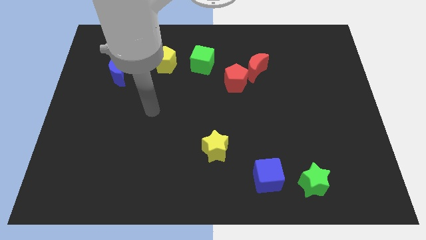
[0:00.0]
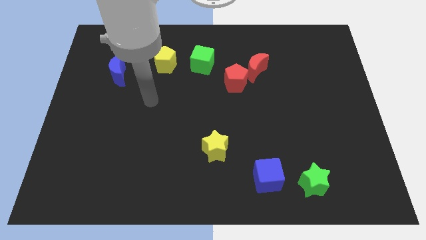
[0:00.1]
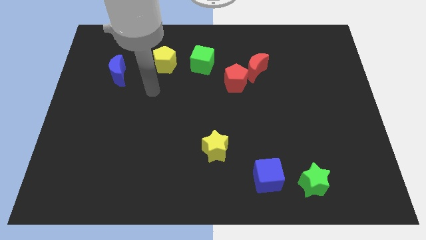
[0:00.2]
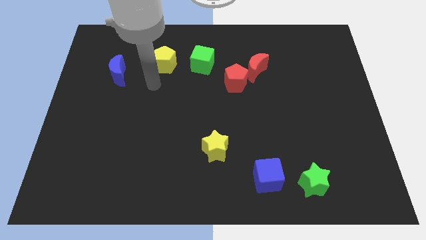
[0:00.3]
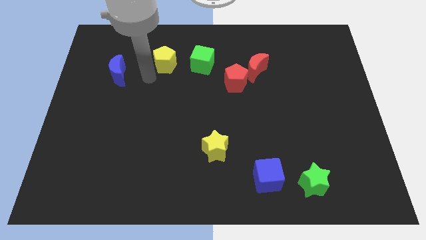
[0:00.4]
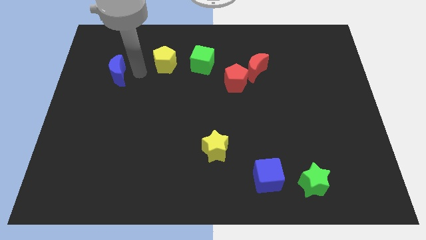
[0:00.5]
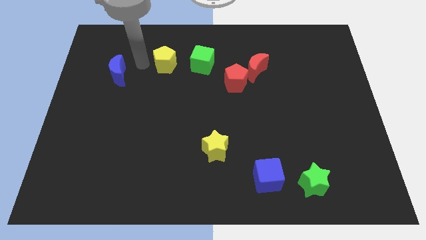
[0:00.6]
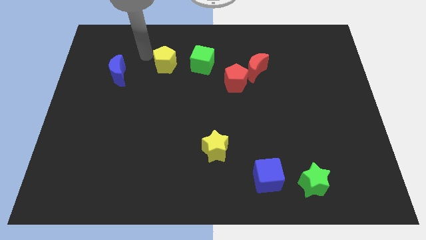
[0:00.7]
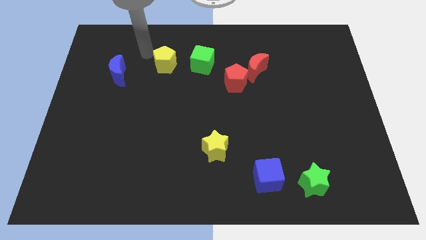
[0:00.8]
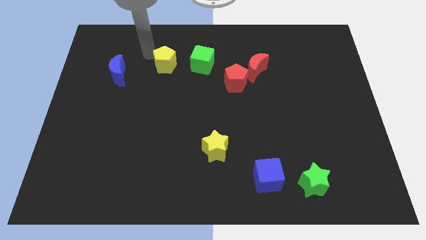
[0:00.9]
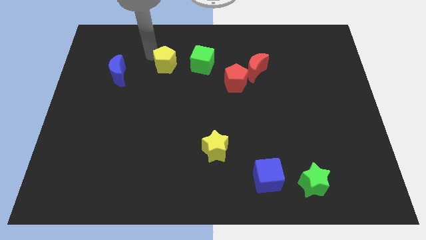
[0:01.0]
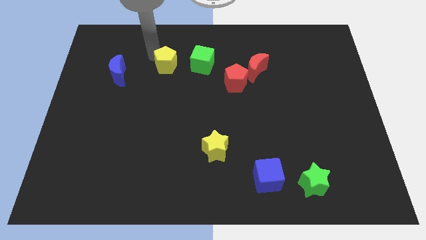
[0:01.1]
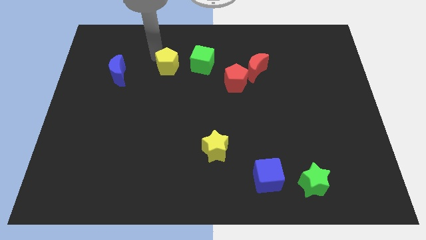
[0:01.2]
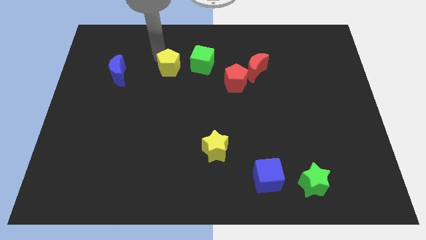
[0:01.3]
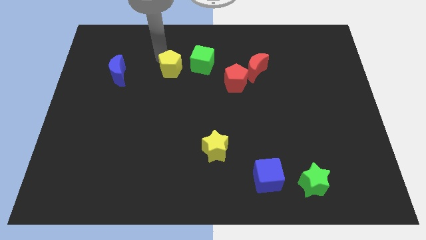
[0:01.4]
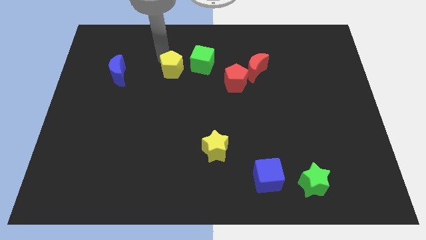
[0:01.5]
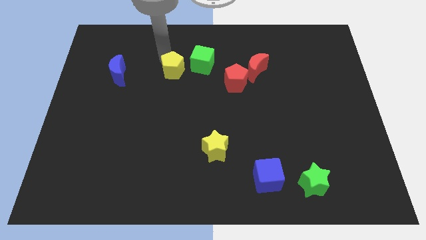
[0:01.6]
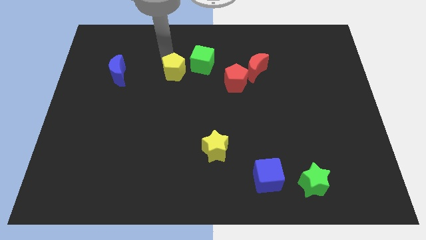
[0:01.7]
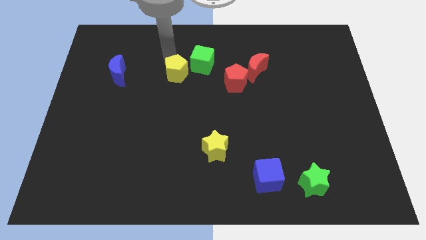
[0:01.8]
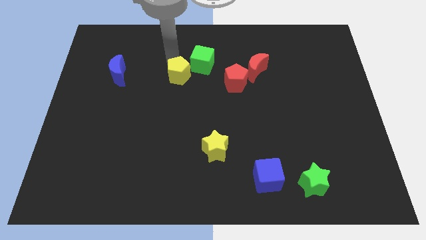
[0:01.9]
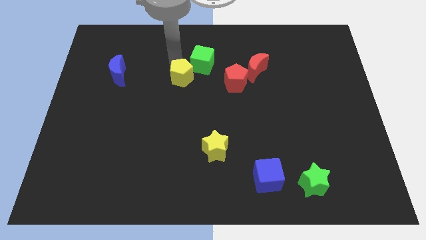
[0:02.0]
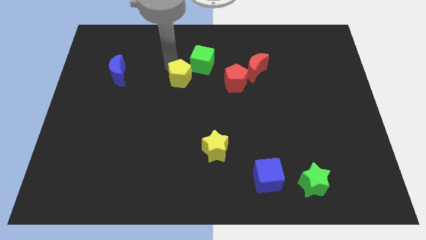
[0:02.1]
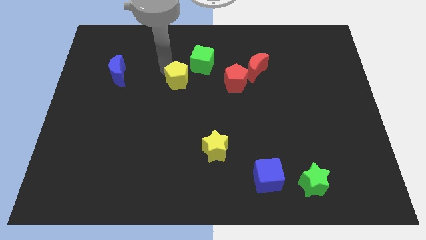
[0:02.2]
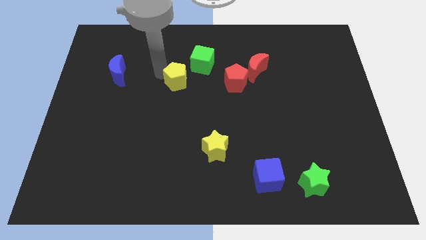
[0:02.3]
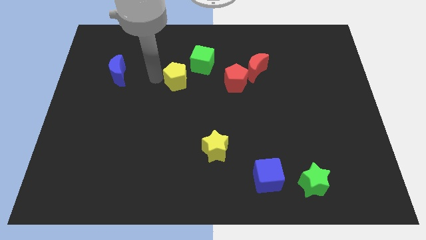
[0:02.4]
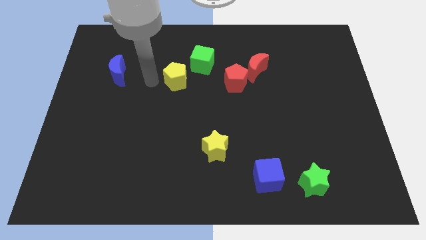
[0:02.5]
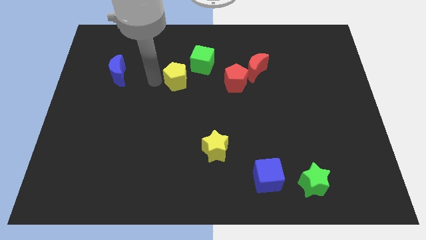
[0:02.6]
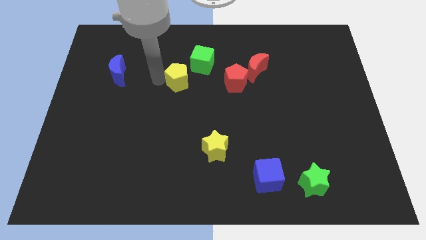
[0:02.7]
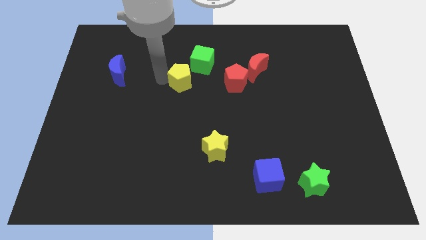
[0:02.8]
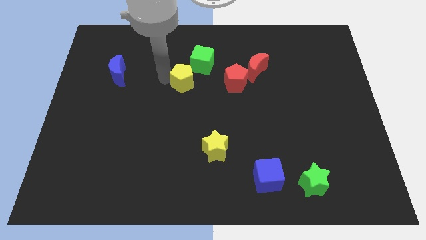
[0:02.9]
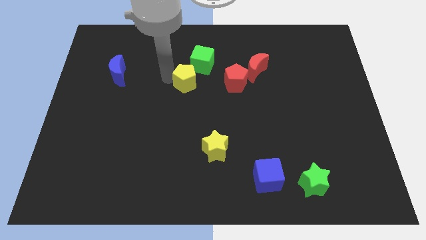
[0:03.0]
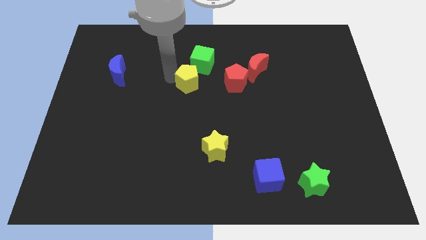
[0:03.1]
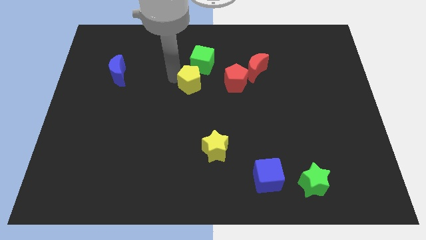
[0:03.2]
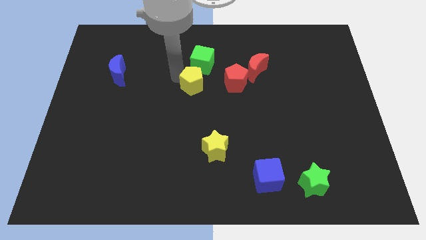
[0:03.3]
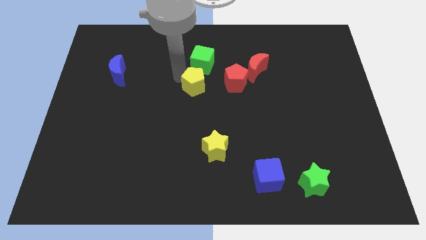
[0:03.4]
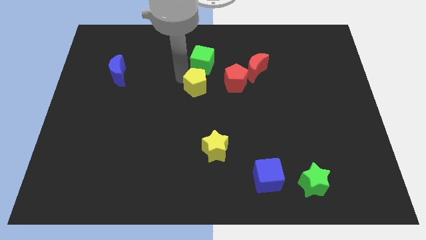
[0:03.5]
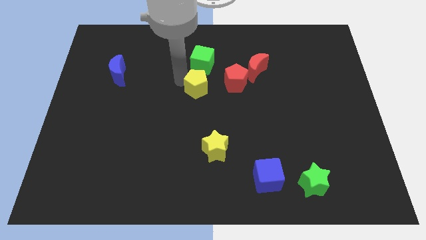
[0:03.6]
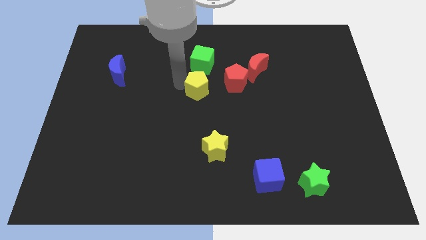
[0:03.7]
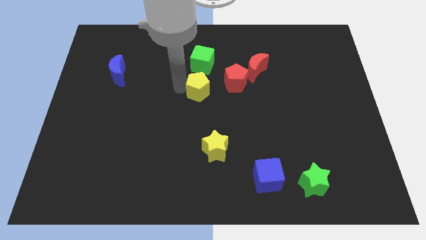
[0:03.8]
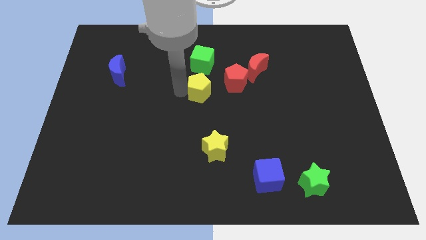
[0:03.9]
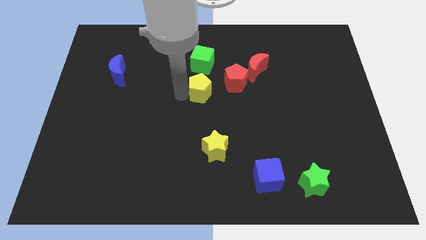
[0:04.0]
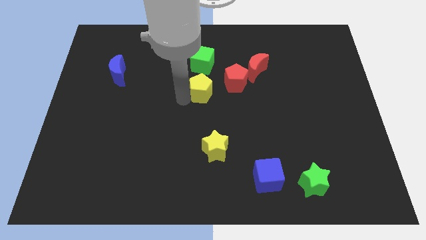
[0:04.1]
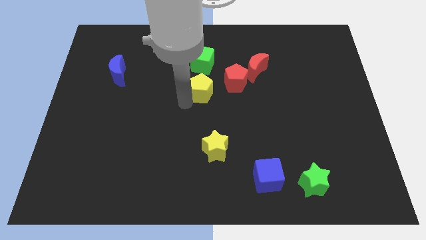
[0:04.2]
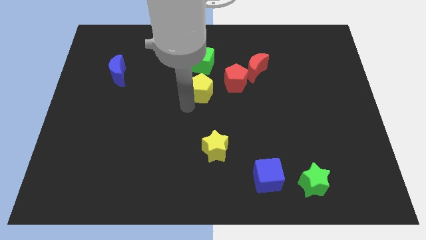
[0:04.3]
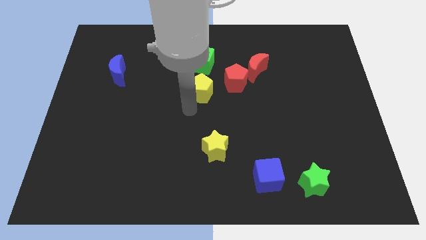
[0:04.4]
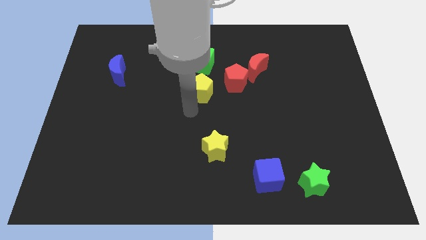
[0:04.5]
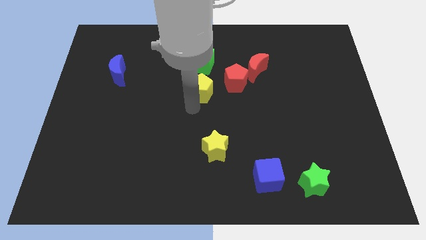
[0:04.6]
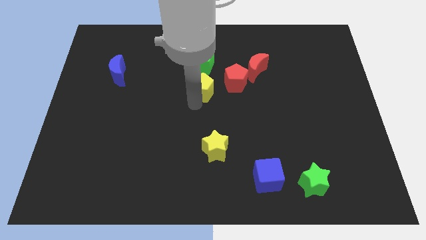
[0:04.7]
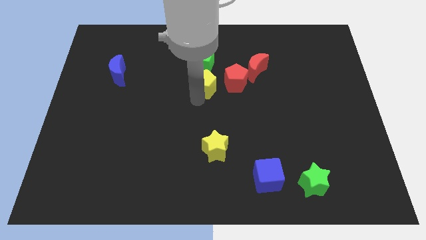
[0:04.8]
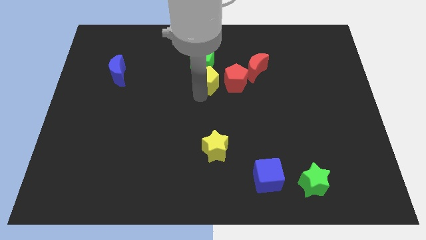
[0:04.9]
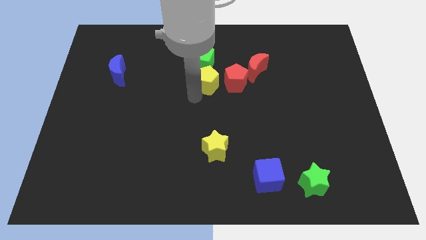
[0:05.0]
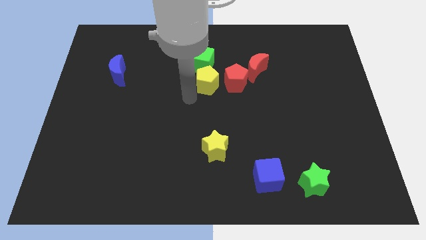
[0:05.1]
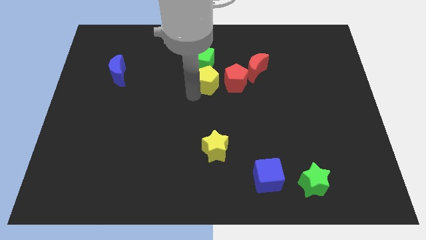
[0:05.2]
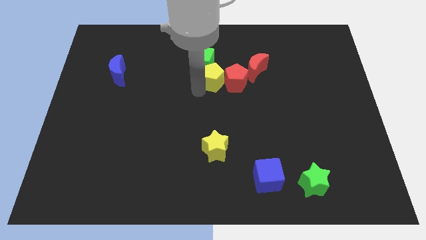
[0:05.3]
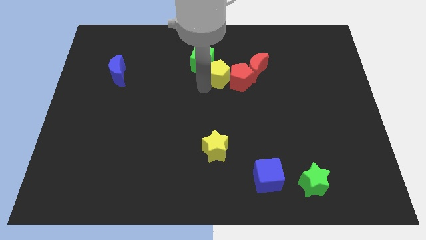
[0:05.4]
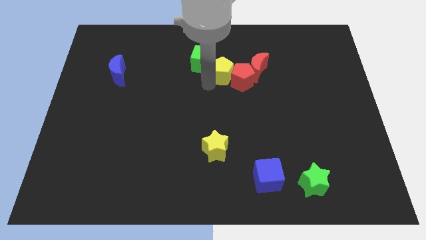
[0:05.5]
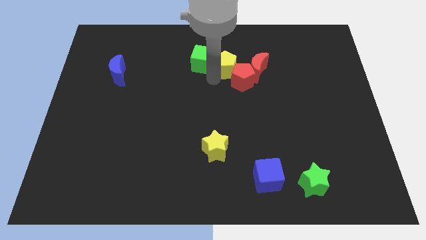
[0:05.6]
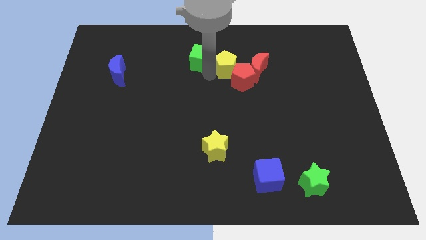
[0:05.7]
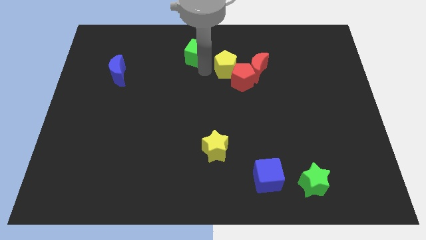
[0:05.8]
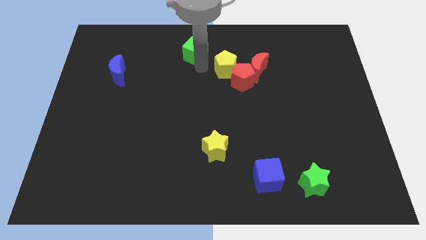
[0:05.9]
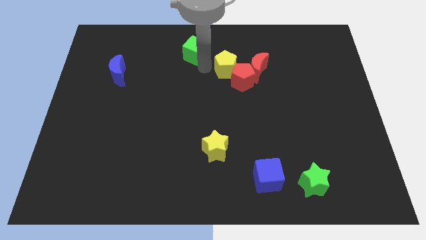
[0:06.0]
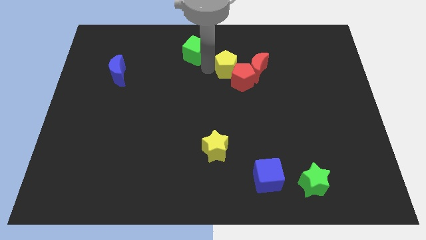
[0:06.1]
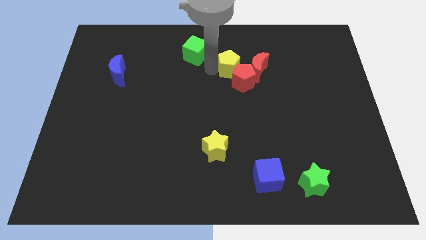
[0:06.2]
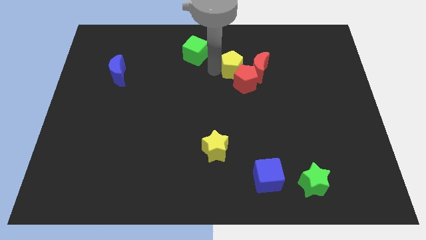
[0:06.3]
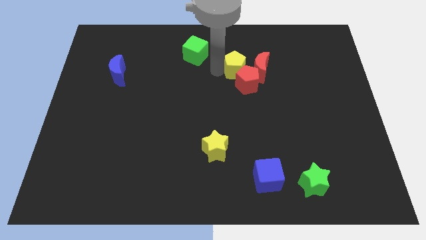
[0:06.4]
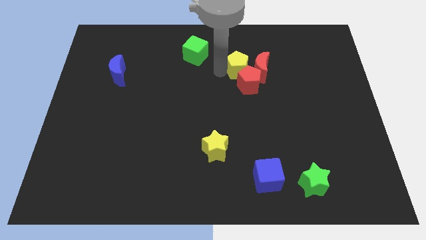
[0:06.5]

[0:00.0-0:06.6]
slide the yellow pentagon to the red moon
